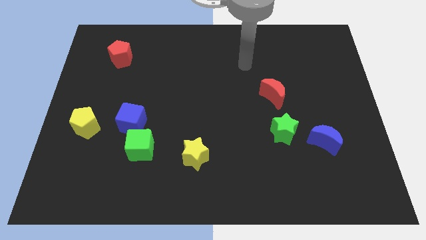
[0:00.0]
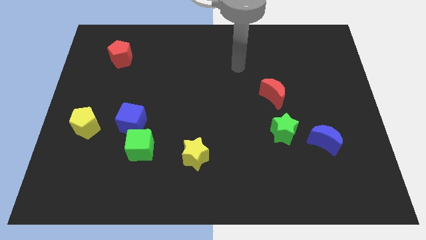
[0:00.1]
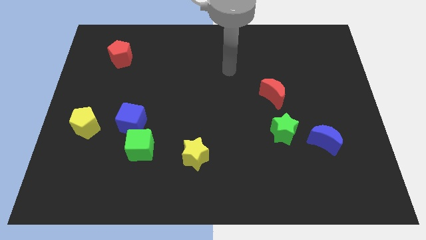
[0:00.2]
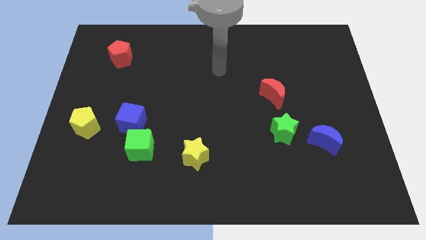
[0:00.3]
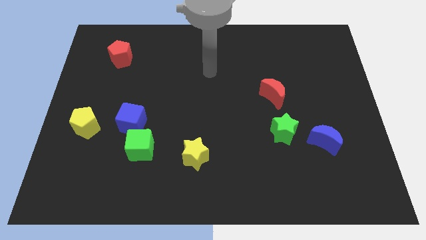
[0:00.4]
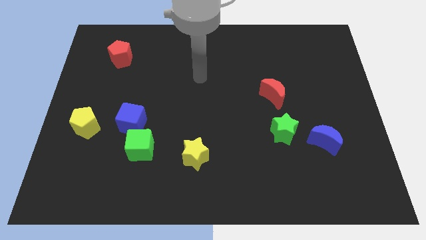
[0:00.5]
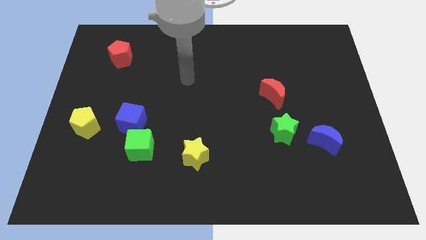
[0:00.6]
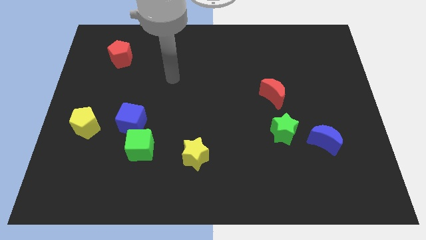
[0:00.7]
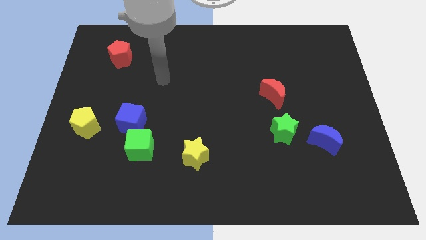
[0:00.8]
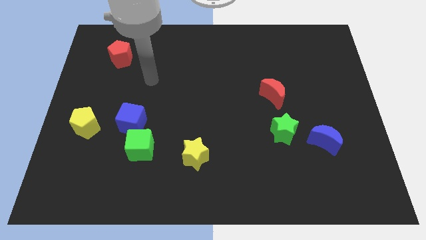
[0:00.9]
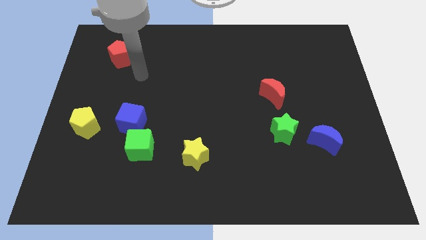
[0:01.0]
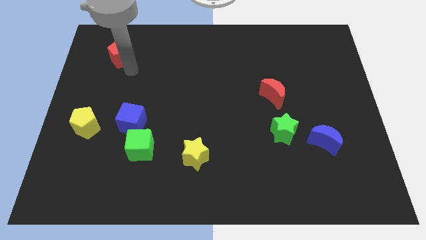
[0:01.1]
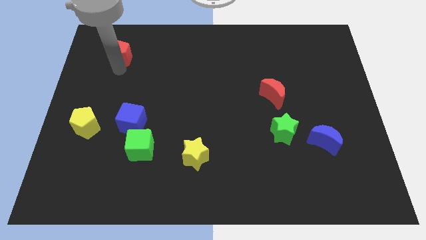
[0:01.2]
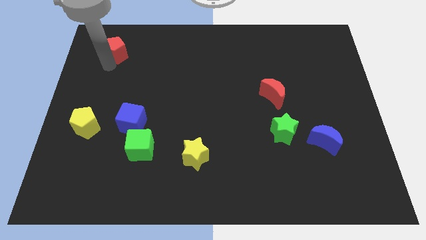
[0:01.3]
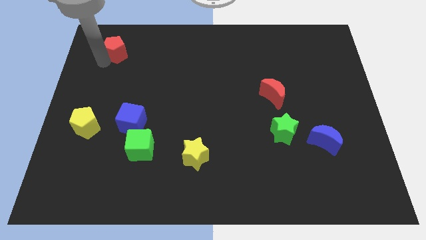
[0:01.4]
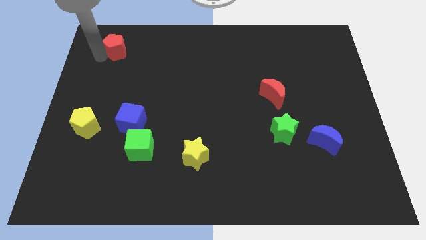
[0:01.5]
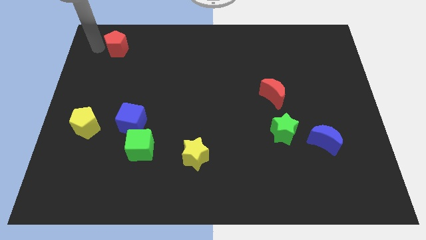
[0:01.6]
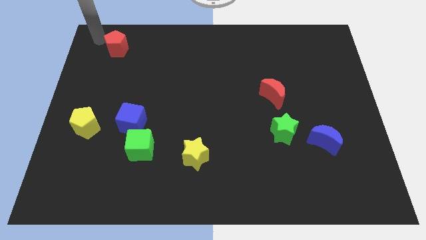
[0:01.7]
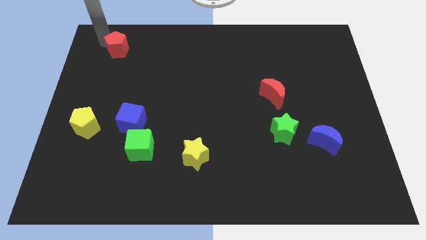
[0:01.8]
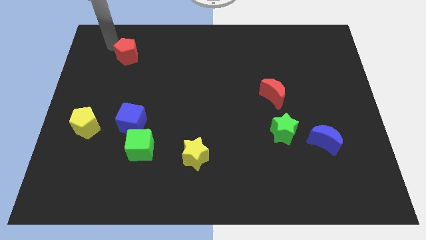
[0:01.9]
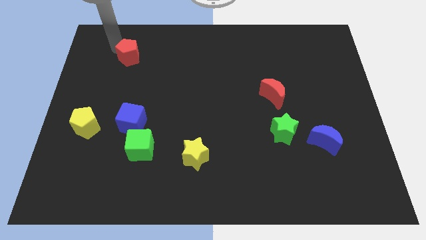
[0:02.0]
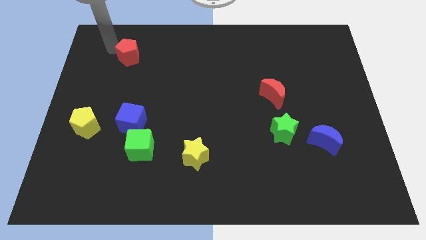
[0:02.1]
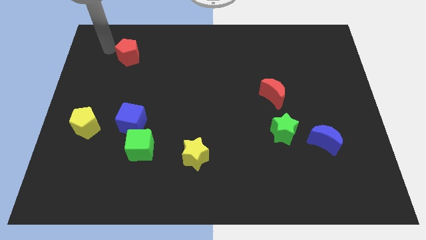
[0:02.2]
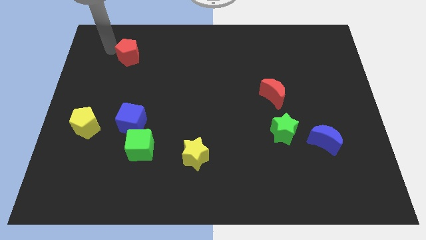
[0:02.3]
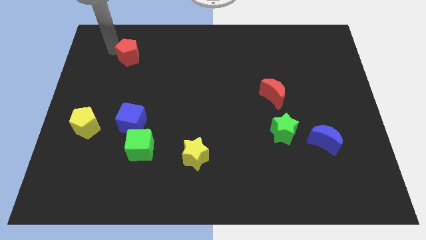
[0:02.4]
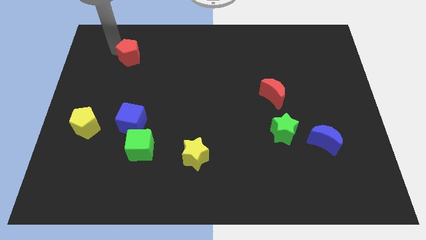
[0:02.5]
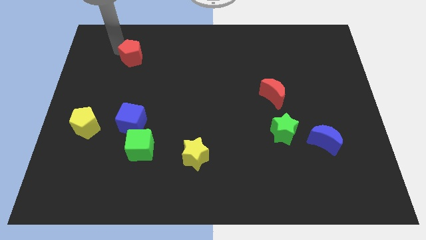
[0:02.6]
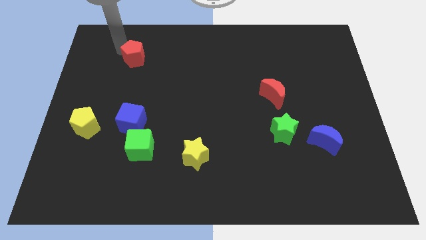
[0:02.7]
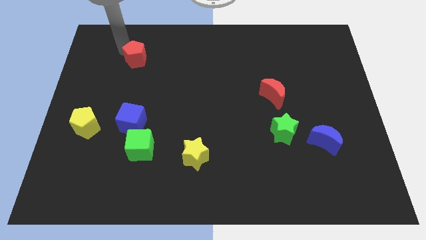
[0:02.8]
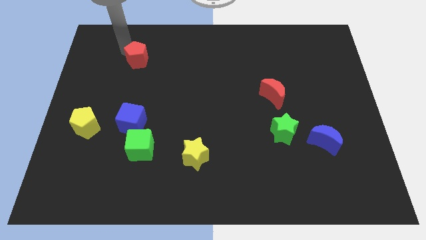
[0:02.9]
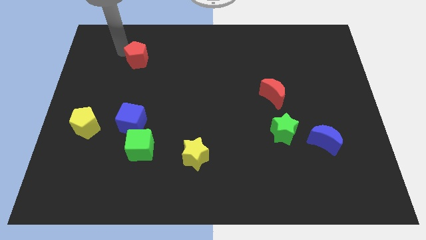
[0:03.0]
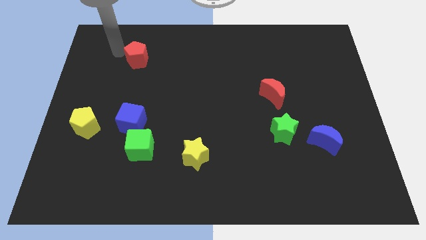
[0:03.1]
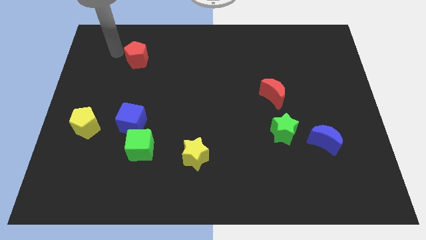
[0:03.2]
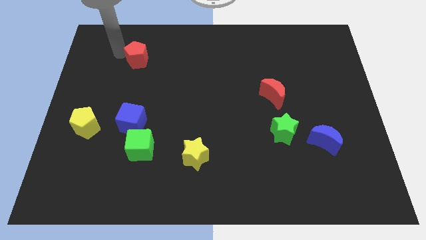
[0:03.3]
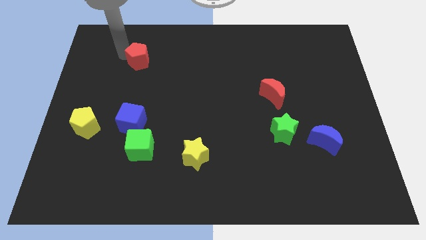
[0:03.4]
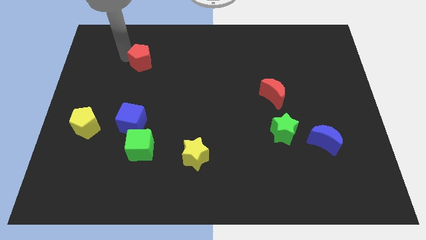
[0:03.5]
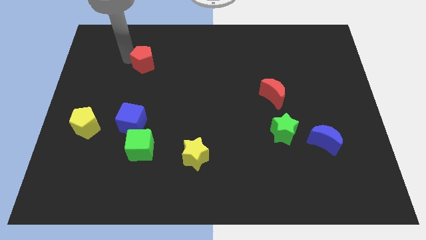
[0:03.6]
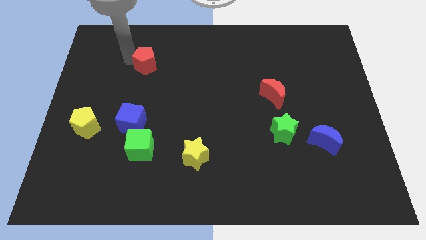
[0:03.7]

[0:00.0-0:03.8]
slightly slide the red pentagon to the right

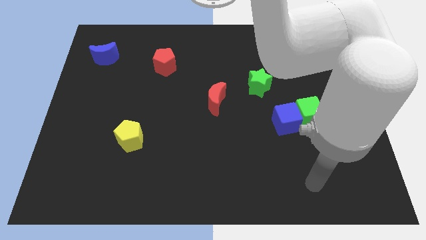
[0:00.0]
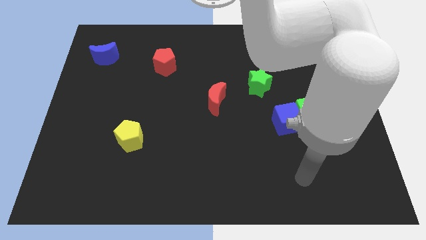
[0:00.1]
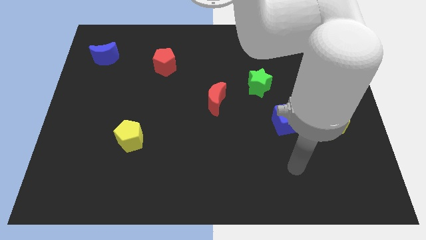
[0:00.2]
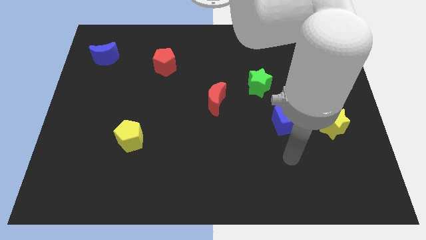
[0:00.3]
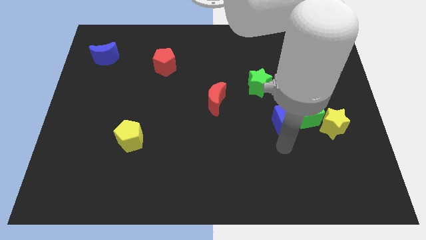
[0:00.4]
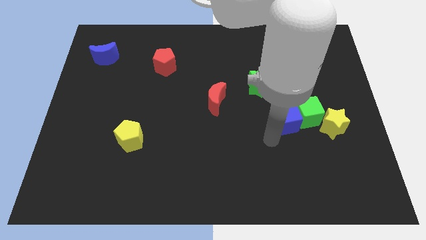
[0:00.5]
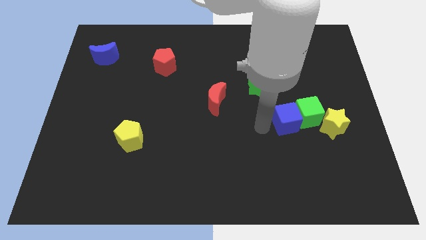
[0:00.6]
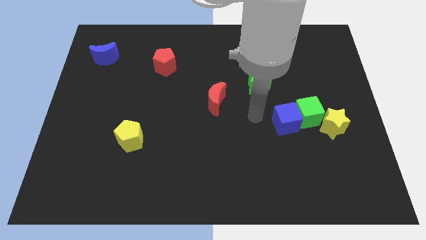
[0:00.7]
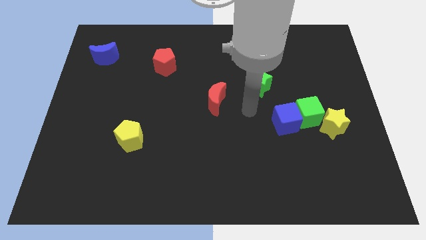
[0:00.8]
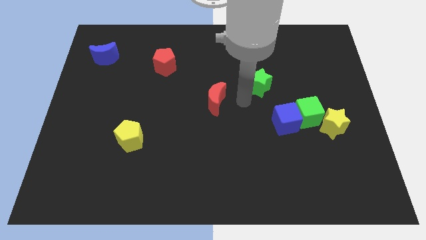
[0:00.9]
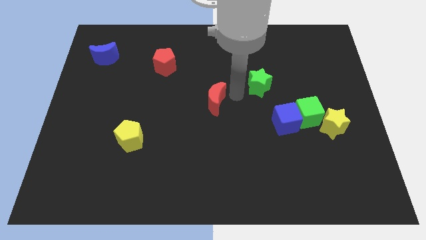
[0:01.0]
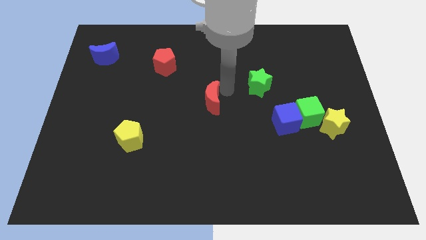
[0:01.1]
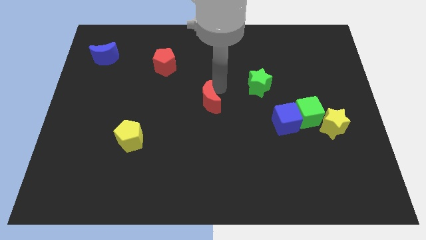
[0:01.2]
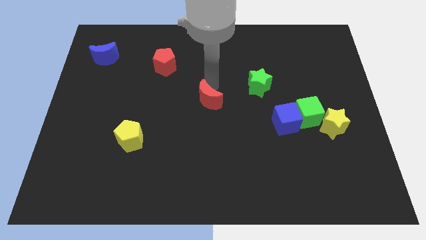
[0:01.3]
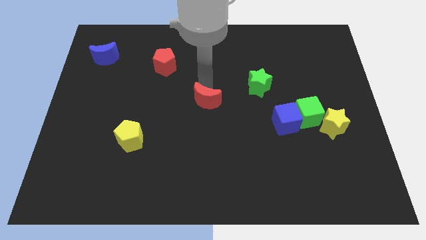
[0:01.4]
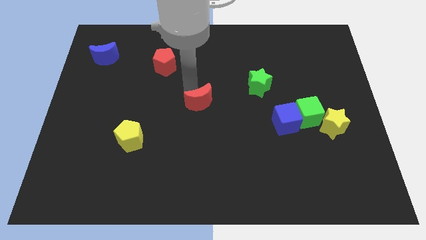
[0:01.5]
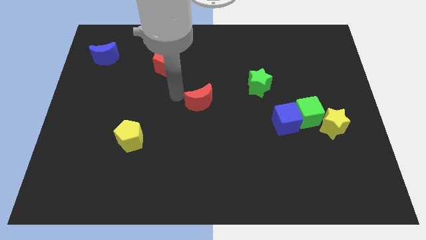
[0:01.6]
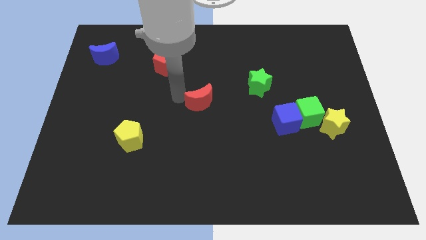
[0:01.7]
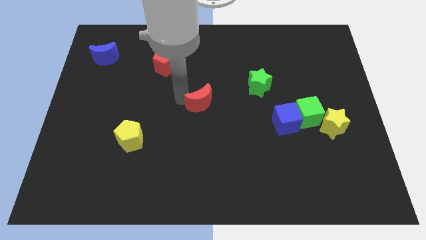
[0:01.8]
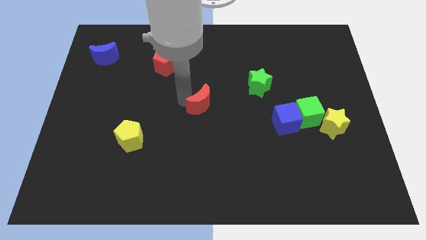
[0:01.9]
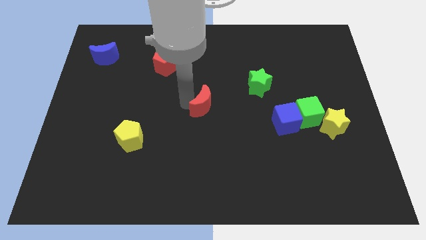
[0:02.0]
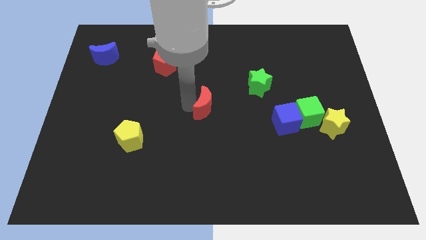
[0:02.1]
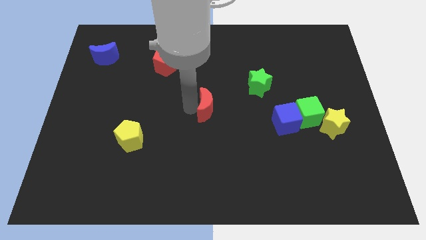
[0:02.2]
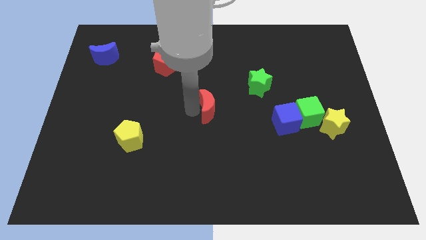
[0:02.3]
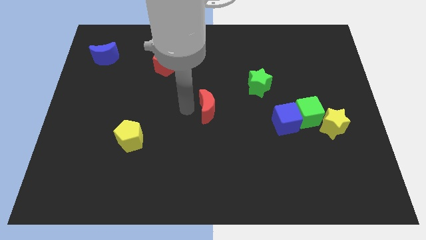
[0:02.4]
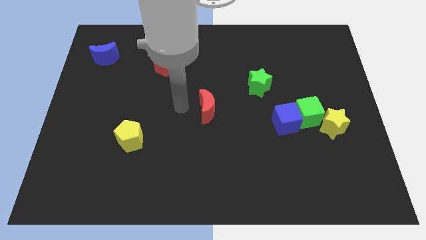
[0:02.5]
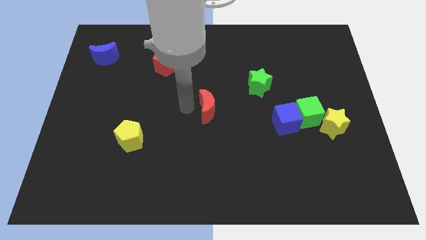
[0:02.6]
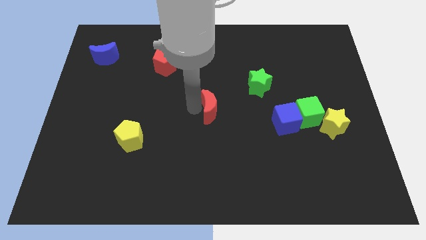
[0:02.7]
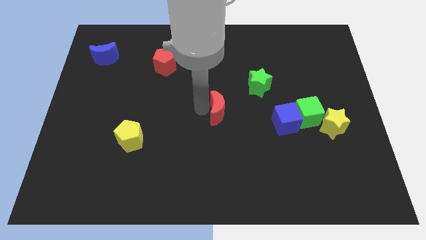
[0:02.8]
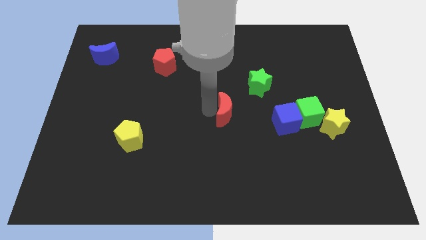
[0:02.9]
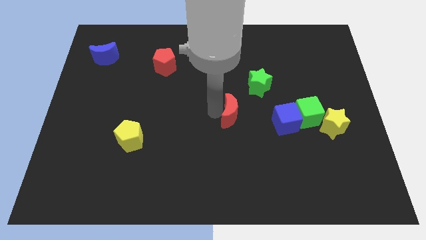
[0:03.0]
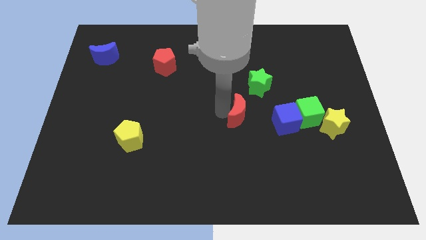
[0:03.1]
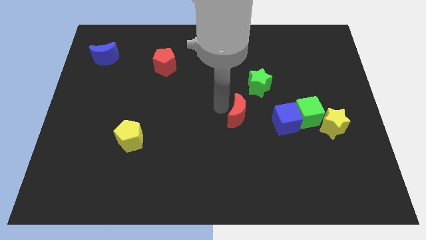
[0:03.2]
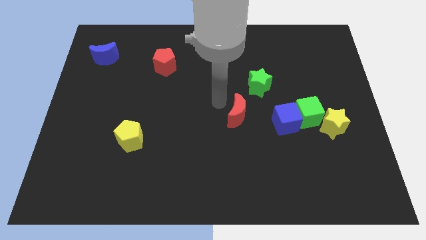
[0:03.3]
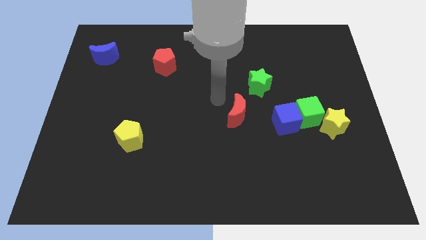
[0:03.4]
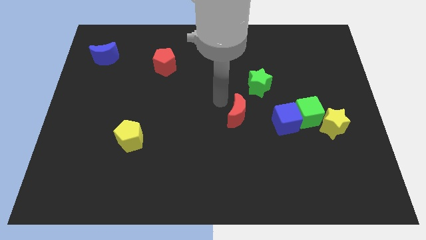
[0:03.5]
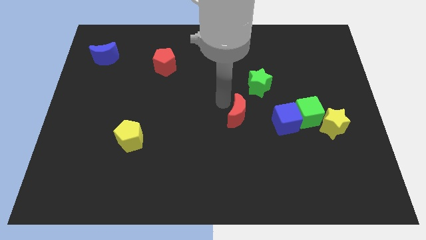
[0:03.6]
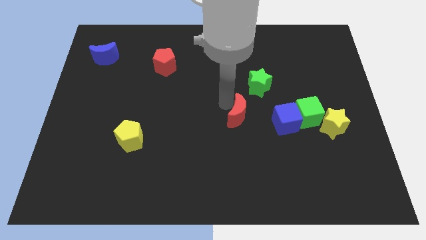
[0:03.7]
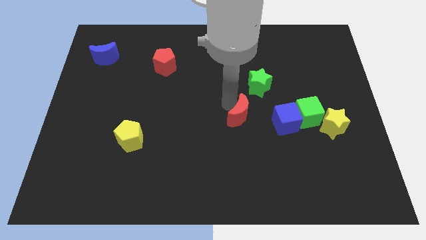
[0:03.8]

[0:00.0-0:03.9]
slightly slide the red moon downwards and to the right

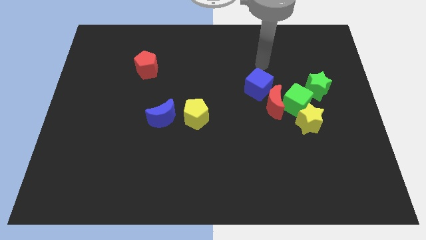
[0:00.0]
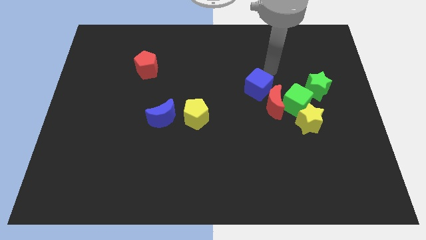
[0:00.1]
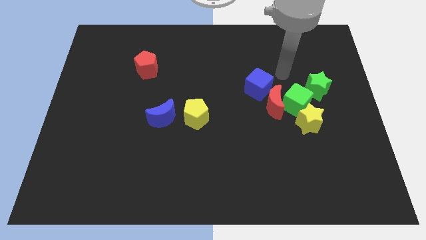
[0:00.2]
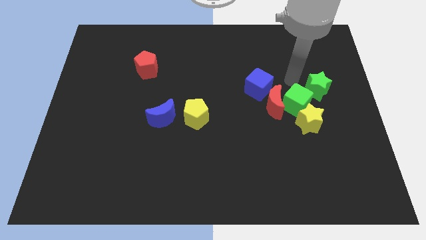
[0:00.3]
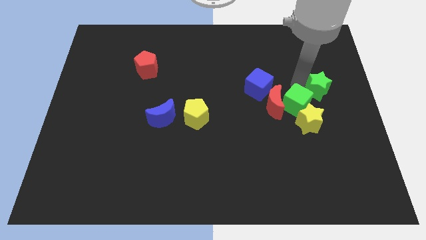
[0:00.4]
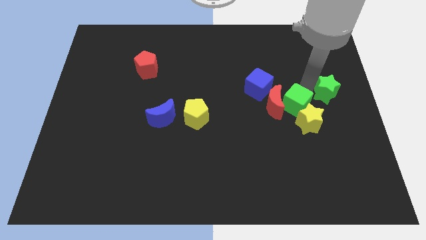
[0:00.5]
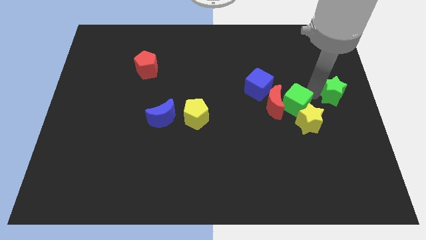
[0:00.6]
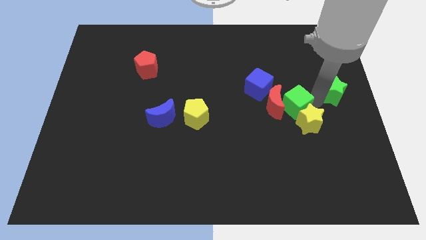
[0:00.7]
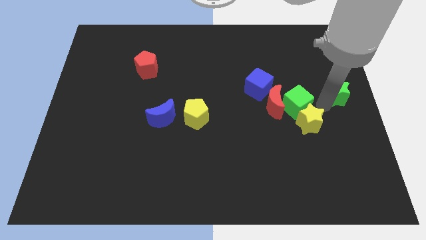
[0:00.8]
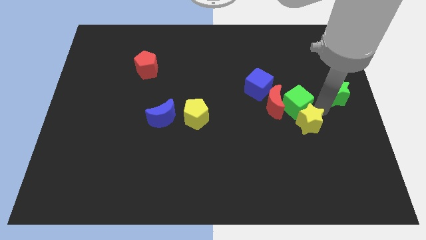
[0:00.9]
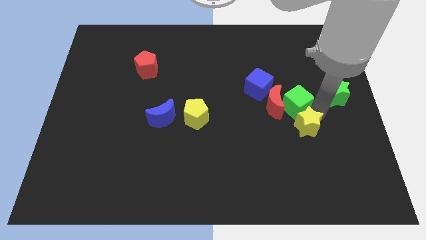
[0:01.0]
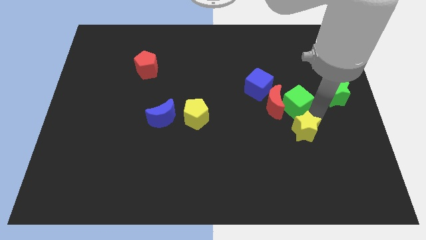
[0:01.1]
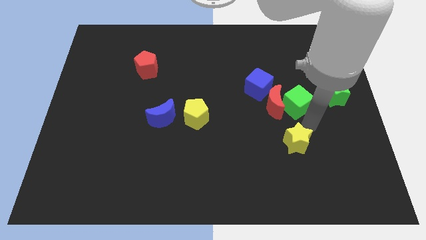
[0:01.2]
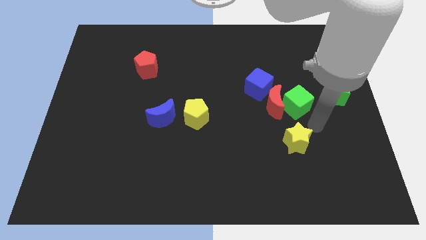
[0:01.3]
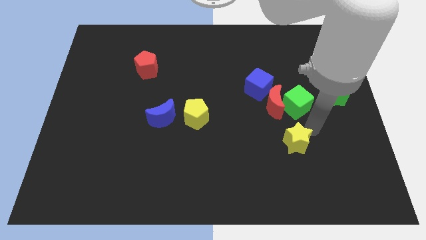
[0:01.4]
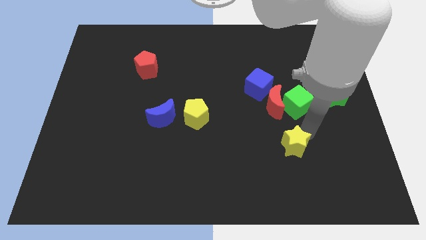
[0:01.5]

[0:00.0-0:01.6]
push the yellow star down and to the left a little bit
